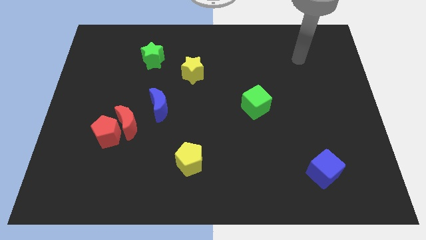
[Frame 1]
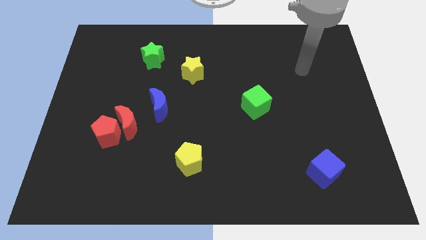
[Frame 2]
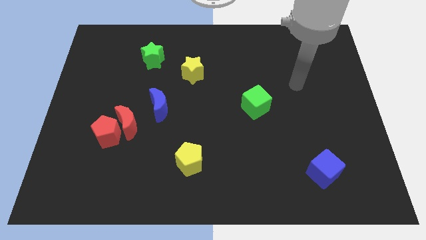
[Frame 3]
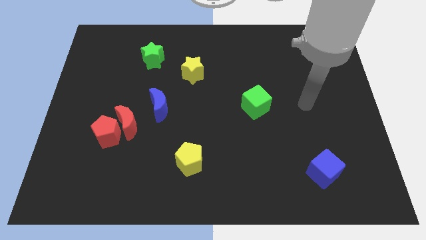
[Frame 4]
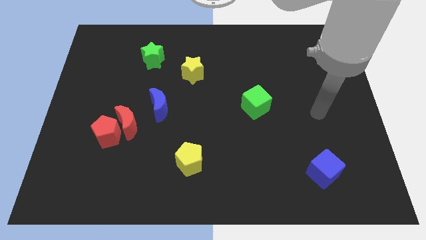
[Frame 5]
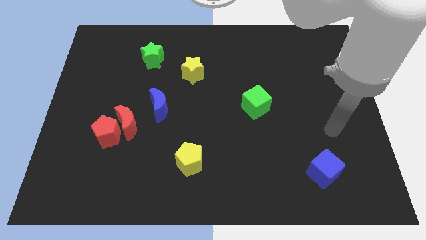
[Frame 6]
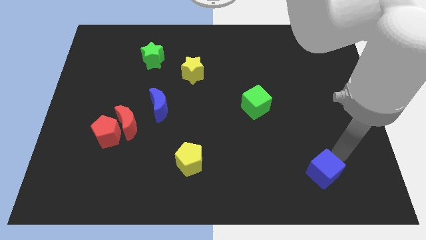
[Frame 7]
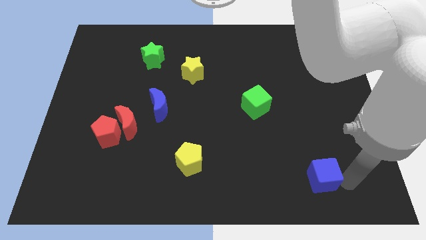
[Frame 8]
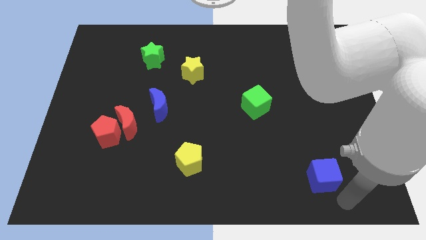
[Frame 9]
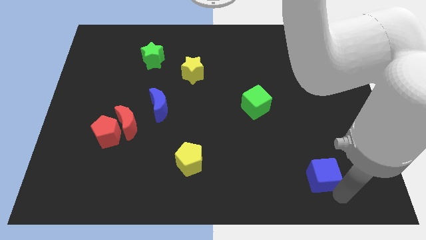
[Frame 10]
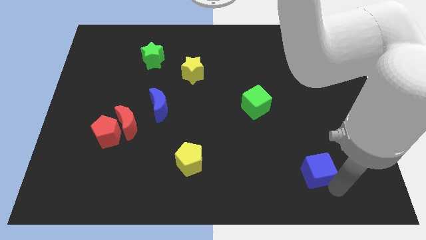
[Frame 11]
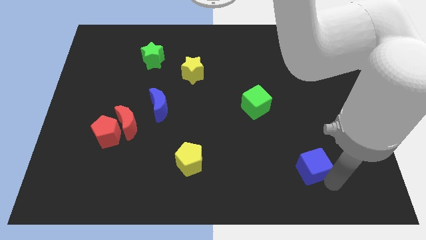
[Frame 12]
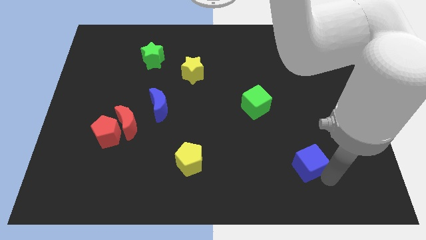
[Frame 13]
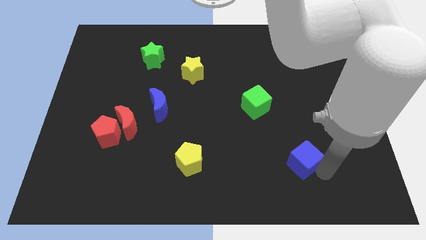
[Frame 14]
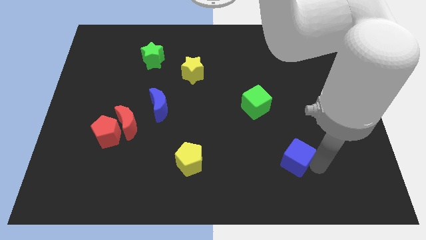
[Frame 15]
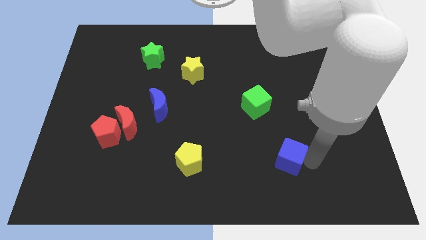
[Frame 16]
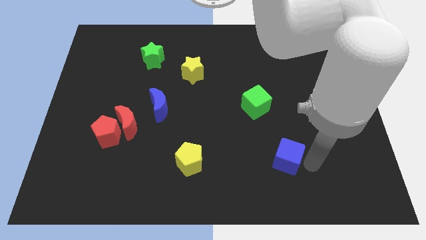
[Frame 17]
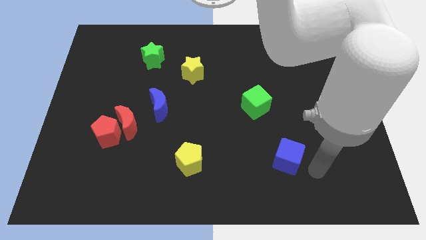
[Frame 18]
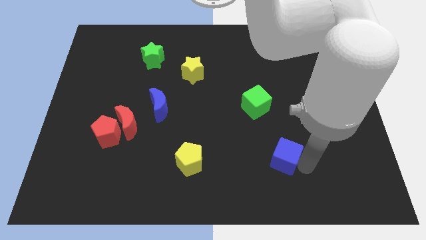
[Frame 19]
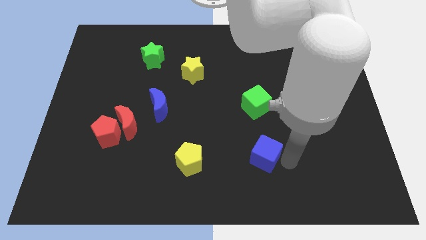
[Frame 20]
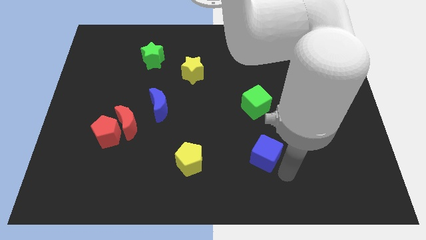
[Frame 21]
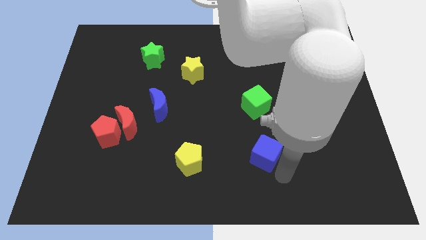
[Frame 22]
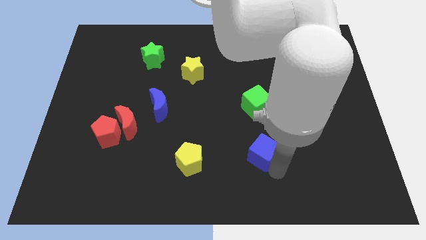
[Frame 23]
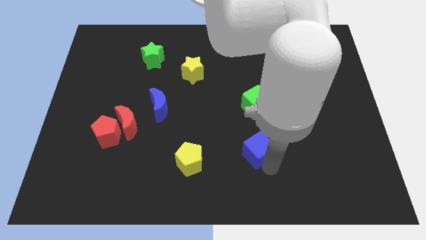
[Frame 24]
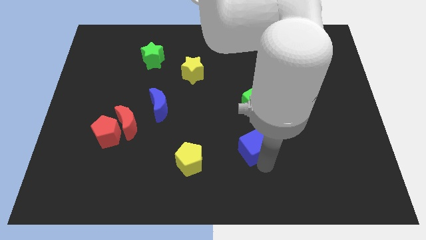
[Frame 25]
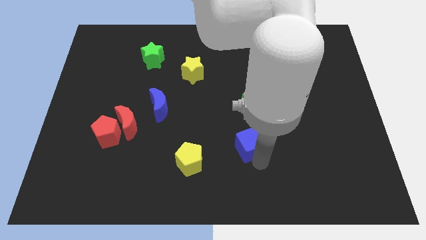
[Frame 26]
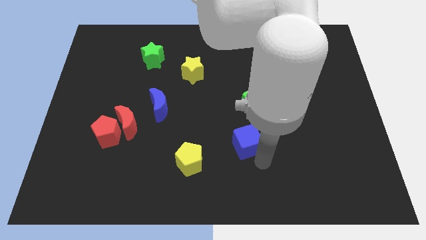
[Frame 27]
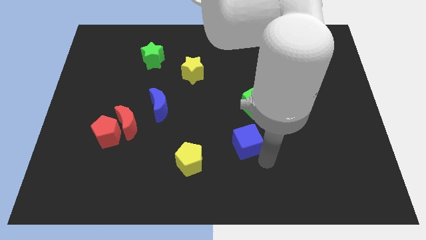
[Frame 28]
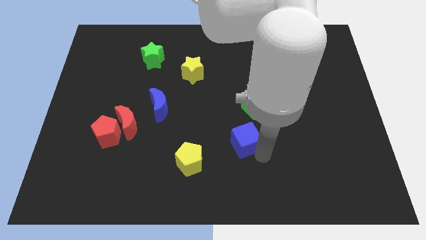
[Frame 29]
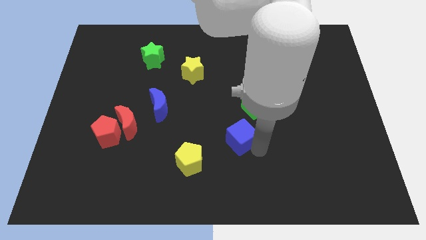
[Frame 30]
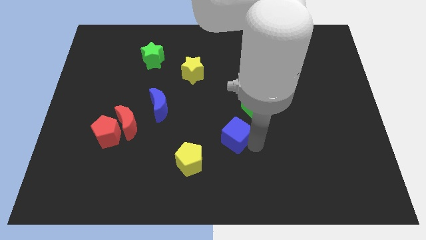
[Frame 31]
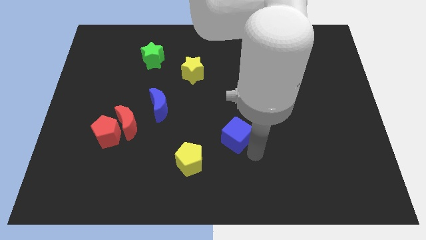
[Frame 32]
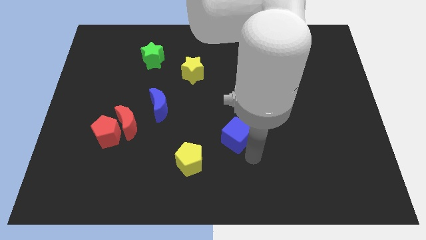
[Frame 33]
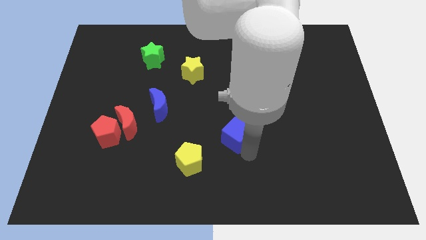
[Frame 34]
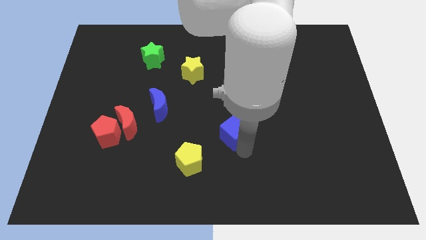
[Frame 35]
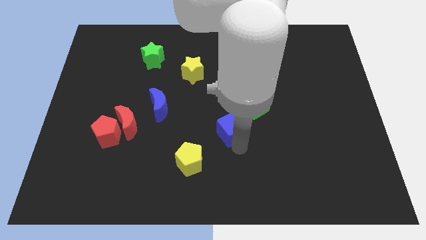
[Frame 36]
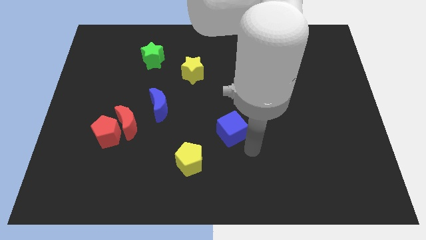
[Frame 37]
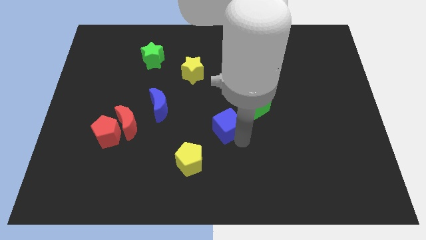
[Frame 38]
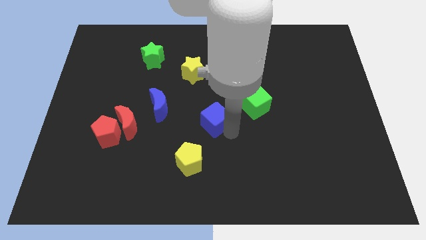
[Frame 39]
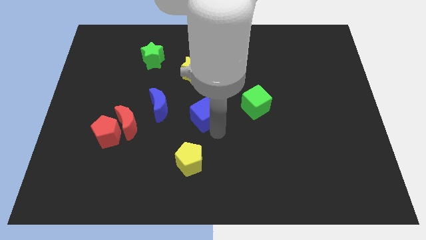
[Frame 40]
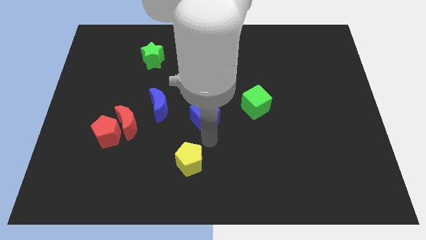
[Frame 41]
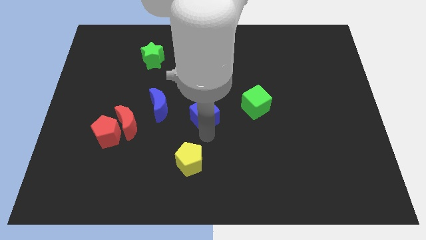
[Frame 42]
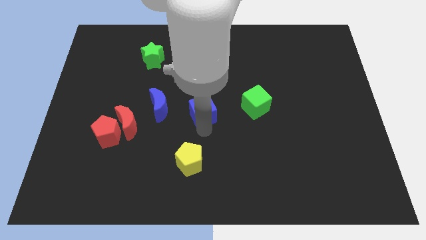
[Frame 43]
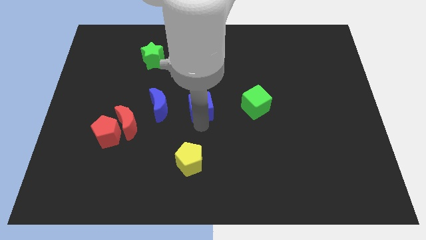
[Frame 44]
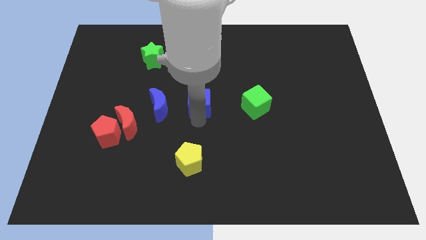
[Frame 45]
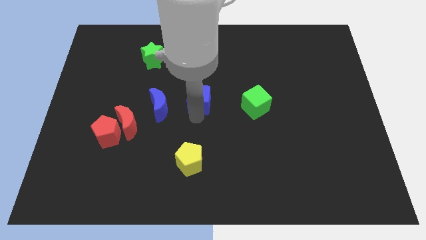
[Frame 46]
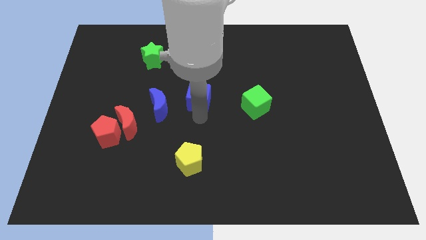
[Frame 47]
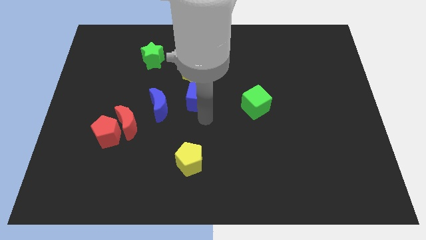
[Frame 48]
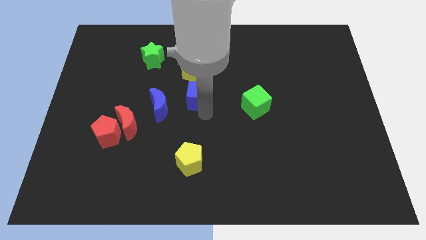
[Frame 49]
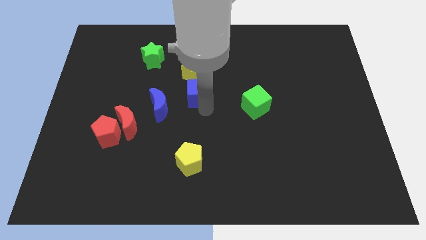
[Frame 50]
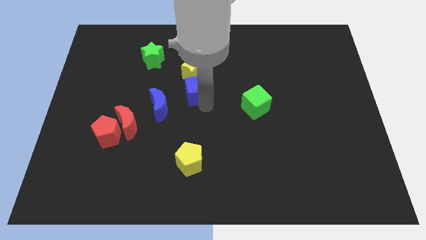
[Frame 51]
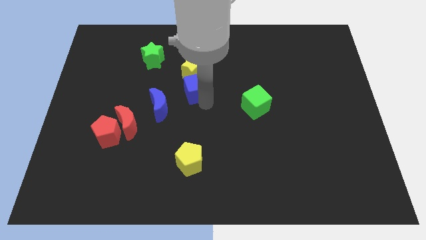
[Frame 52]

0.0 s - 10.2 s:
put the blue cube close to the yellow star
